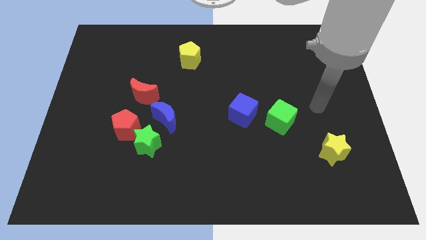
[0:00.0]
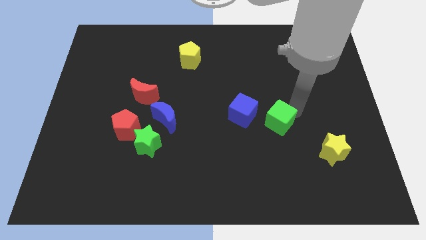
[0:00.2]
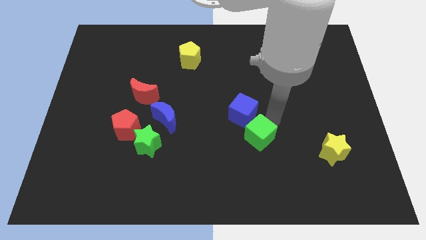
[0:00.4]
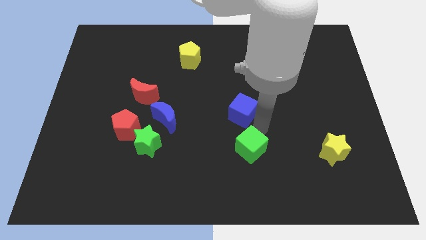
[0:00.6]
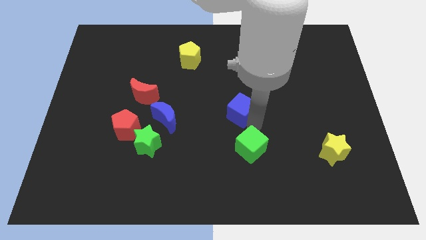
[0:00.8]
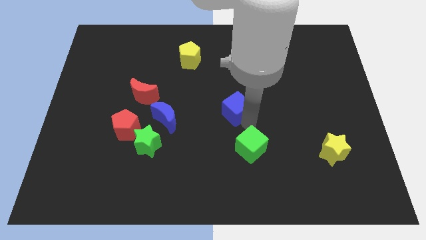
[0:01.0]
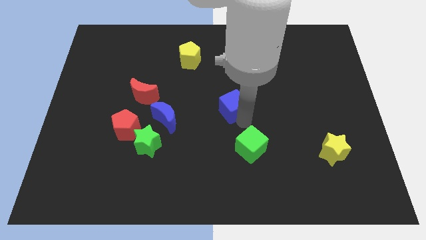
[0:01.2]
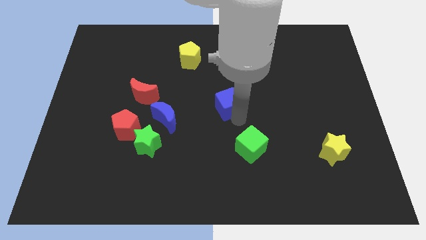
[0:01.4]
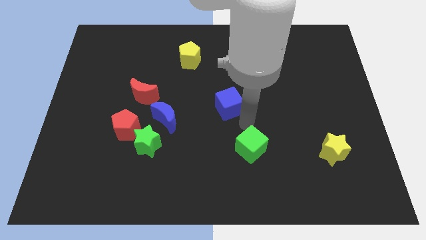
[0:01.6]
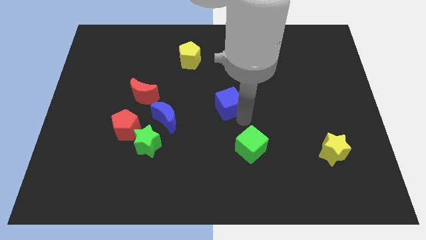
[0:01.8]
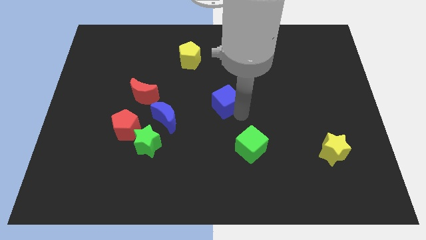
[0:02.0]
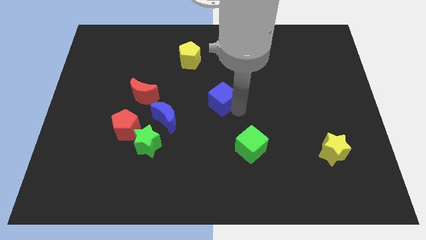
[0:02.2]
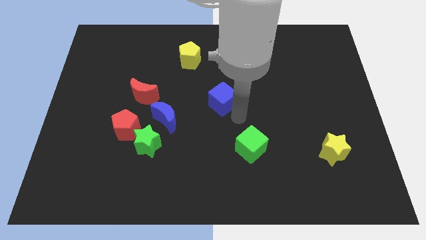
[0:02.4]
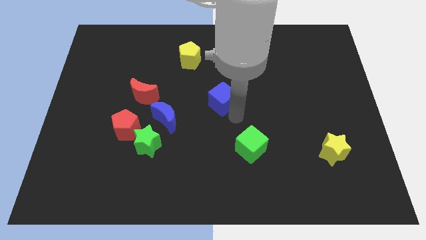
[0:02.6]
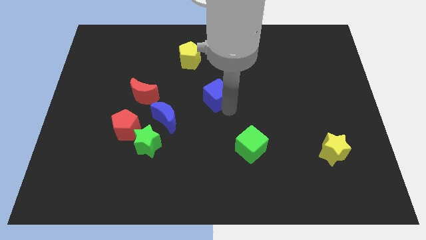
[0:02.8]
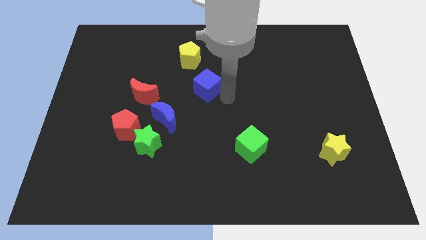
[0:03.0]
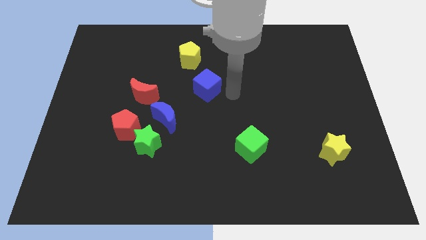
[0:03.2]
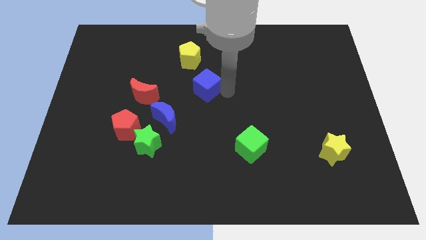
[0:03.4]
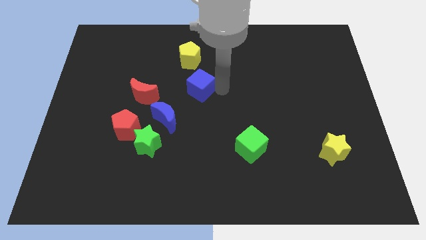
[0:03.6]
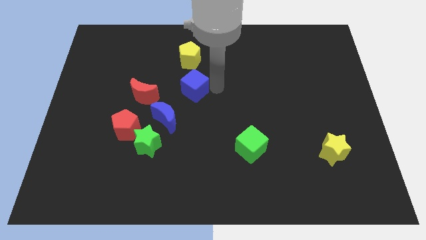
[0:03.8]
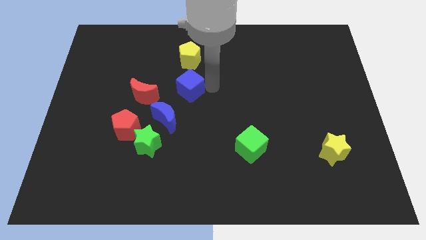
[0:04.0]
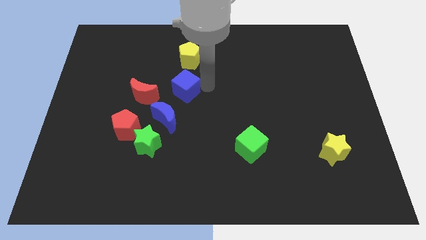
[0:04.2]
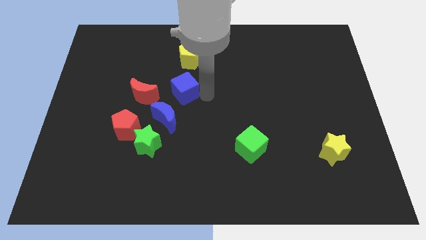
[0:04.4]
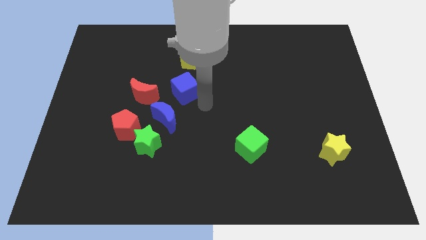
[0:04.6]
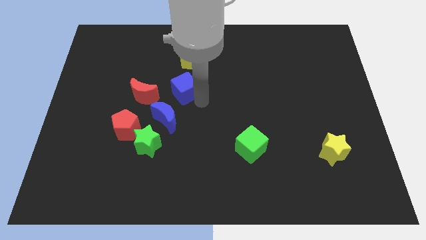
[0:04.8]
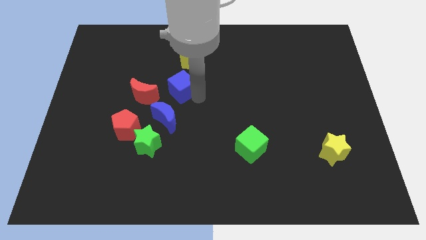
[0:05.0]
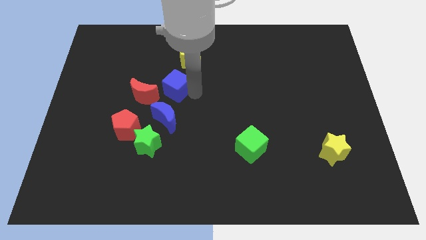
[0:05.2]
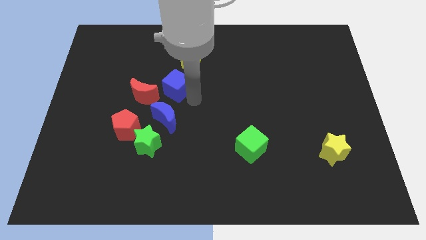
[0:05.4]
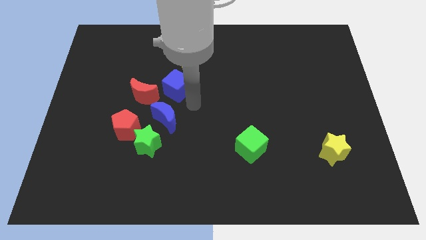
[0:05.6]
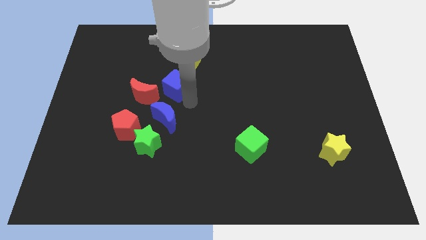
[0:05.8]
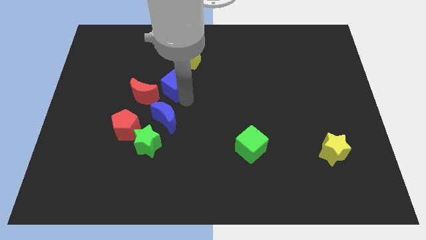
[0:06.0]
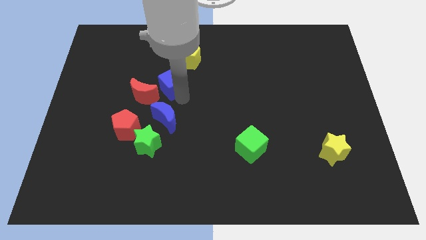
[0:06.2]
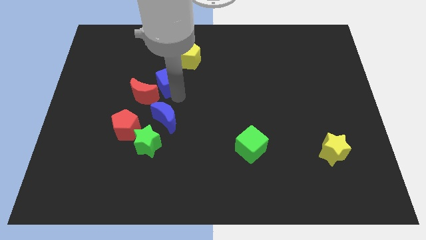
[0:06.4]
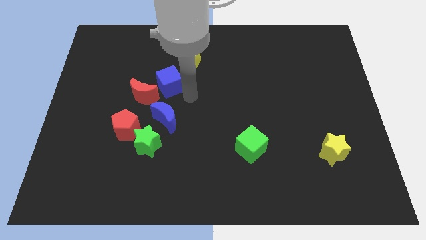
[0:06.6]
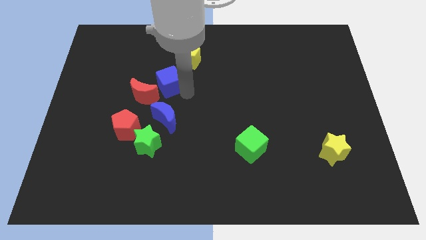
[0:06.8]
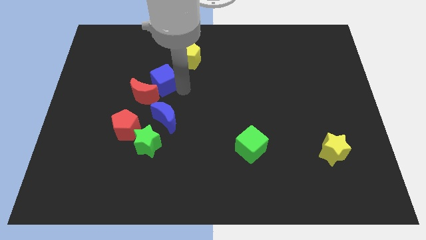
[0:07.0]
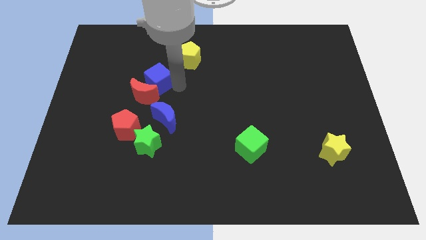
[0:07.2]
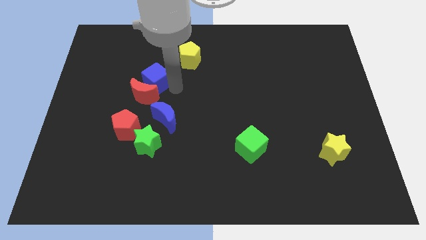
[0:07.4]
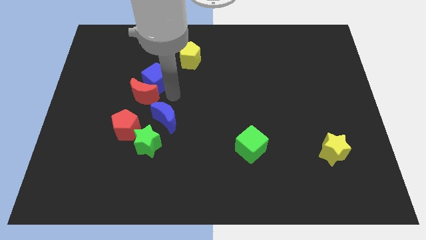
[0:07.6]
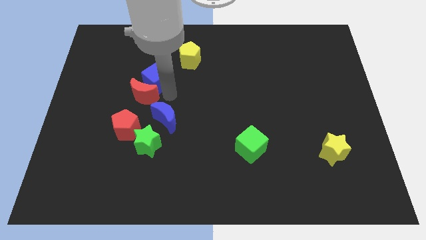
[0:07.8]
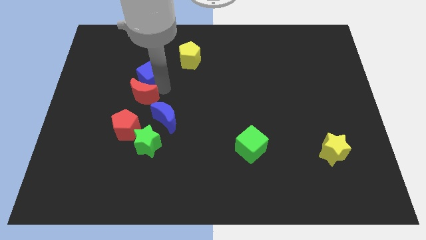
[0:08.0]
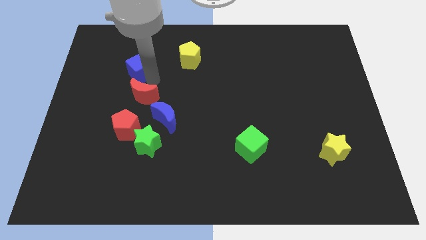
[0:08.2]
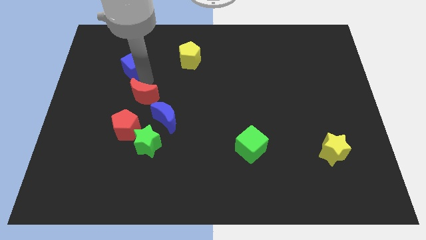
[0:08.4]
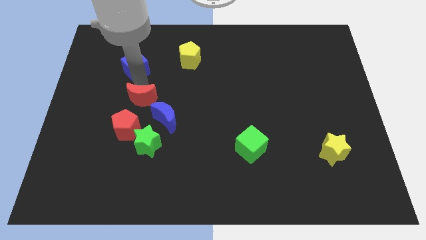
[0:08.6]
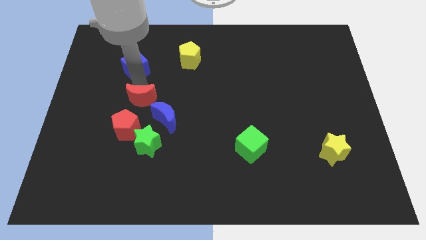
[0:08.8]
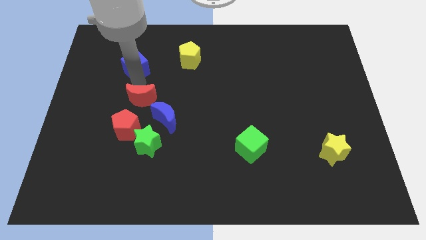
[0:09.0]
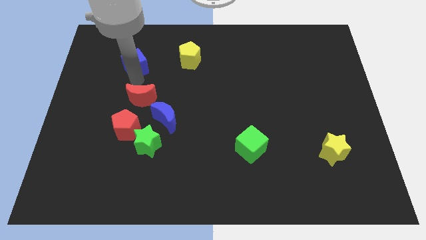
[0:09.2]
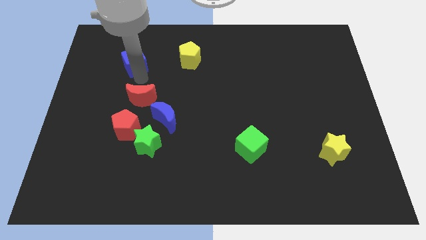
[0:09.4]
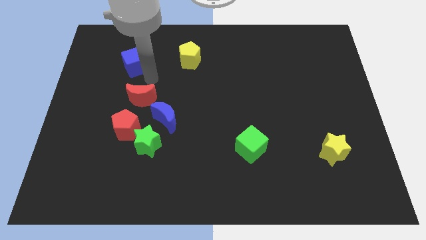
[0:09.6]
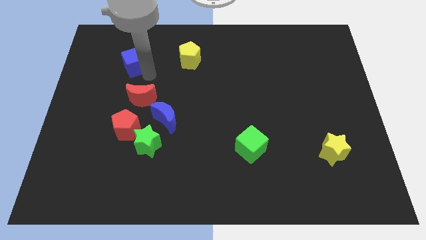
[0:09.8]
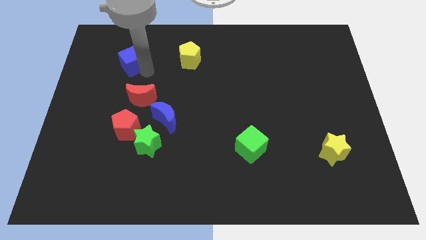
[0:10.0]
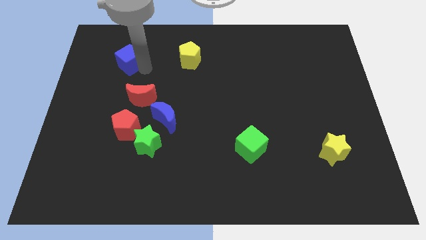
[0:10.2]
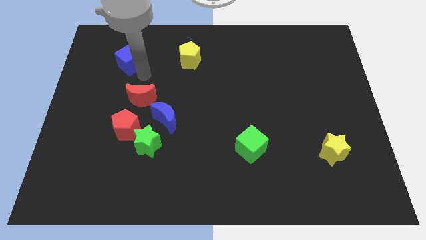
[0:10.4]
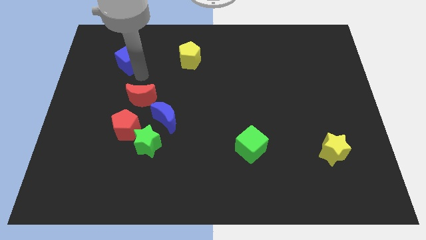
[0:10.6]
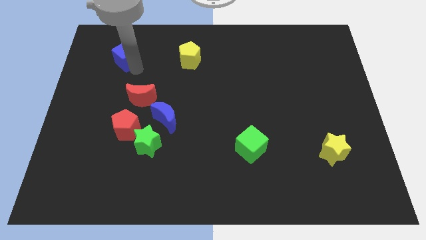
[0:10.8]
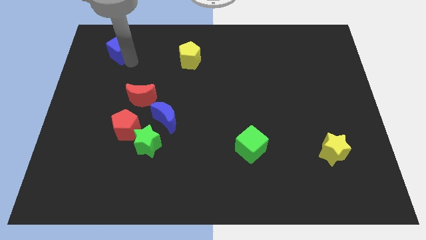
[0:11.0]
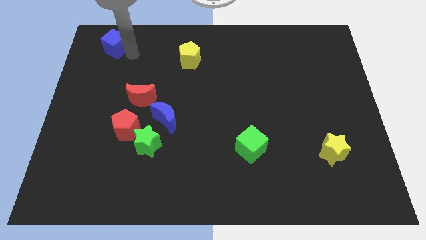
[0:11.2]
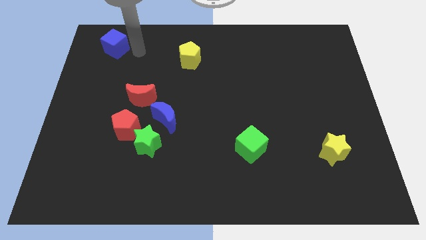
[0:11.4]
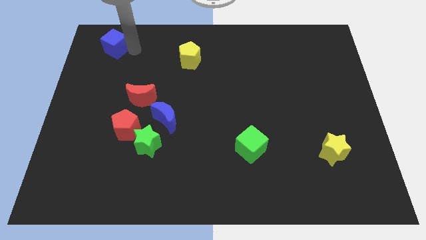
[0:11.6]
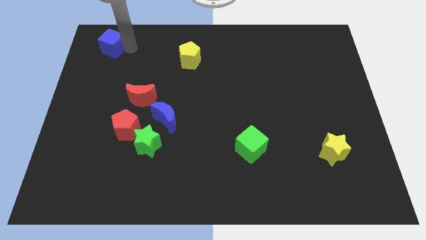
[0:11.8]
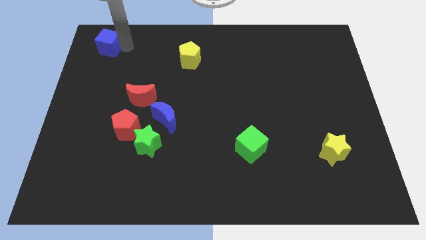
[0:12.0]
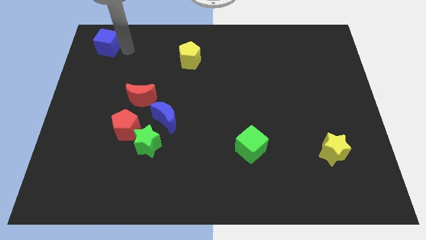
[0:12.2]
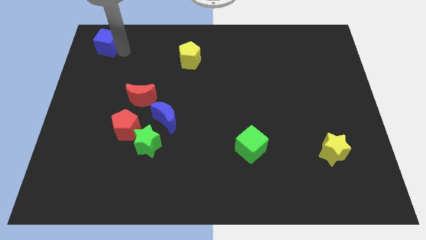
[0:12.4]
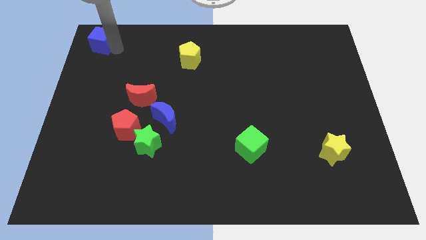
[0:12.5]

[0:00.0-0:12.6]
move the blue cube to the top left of the board
